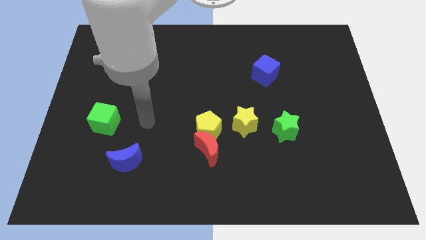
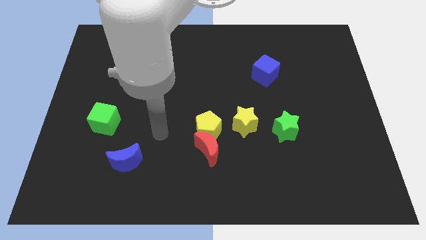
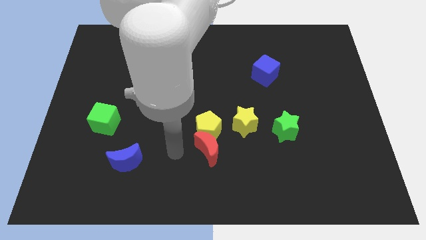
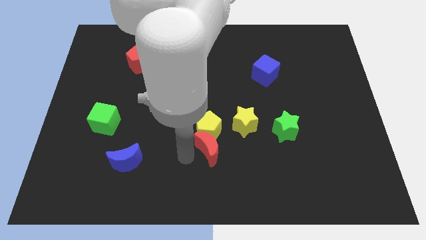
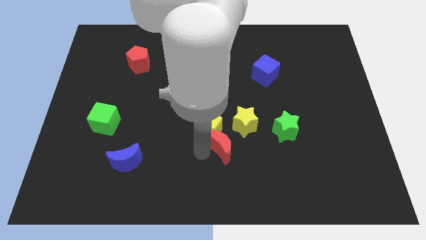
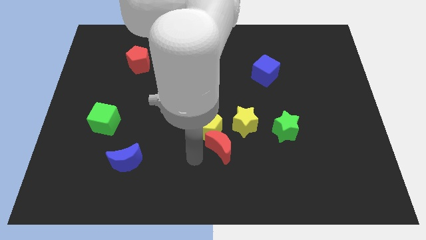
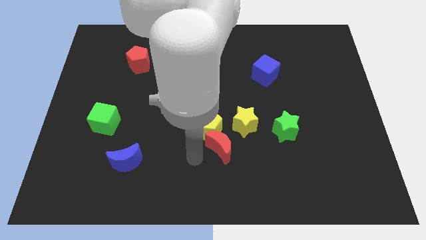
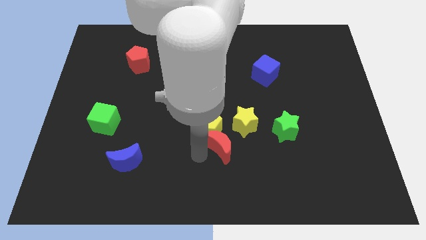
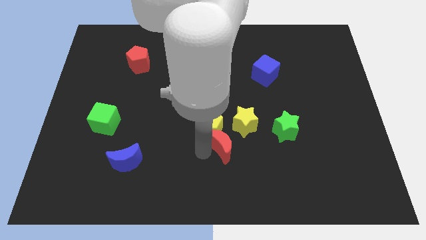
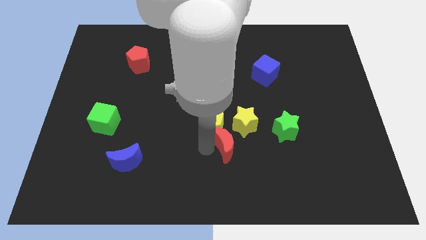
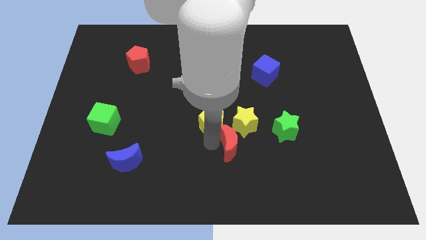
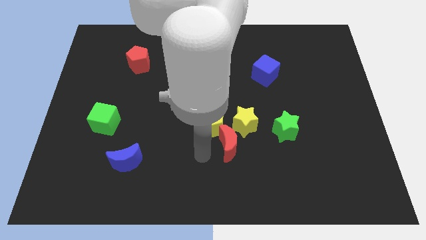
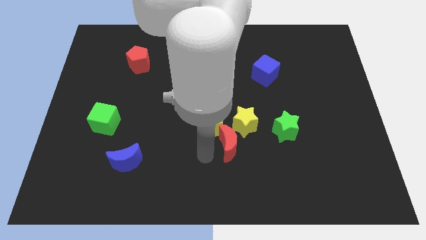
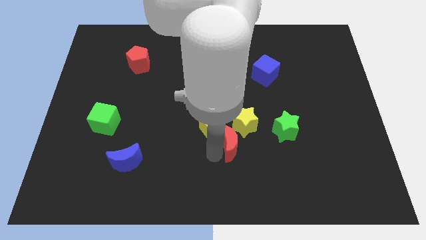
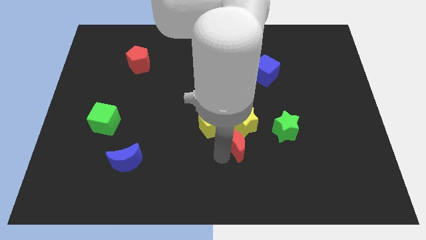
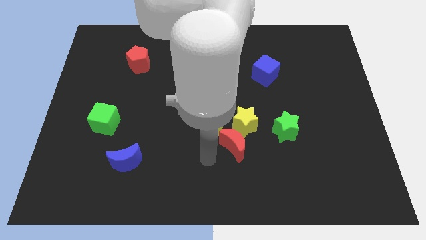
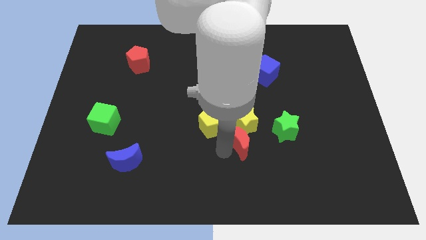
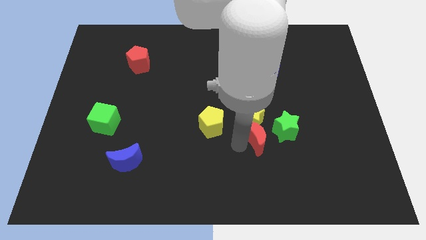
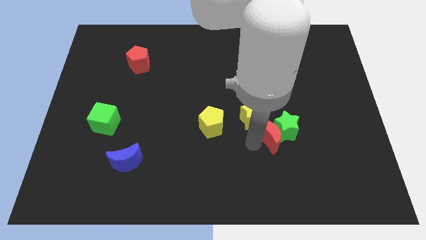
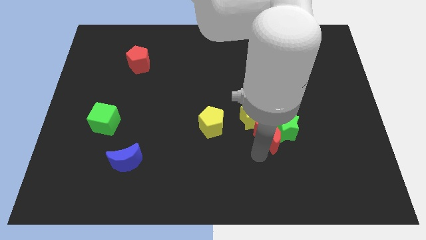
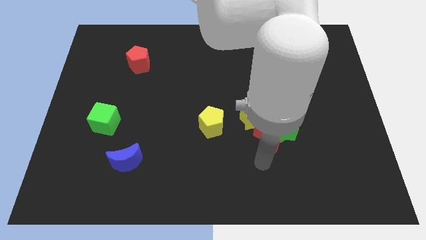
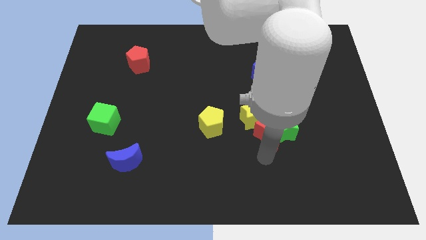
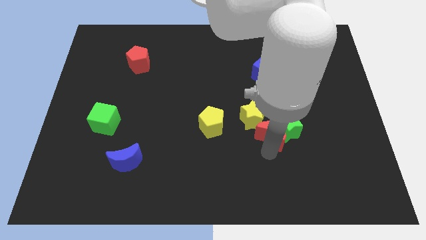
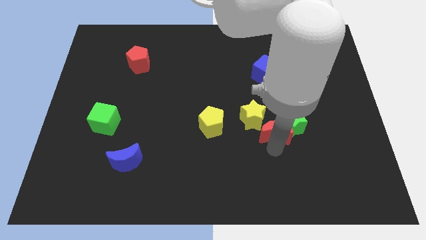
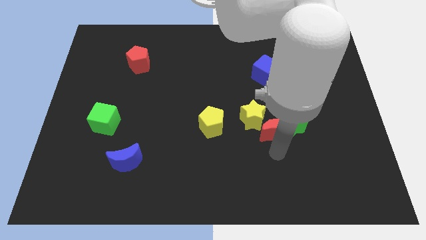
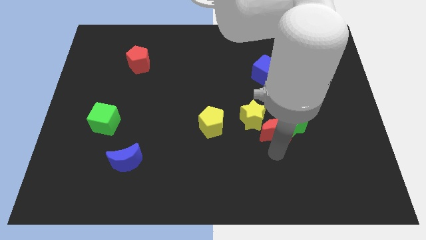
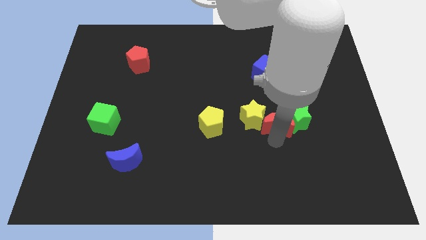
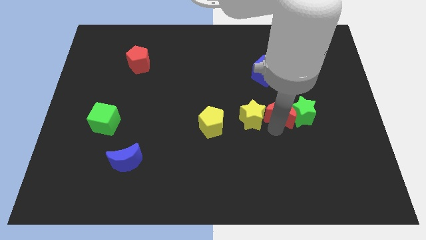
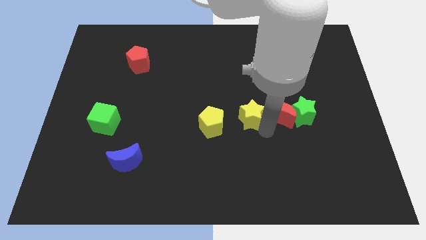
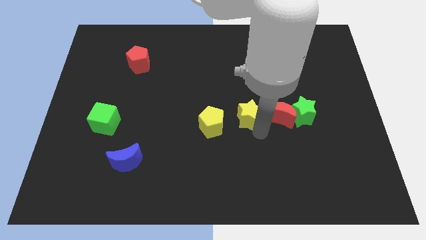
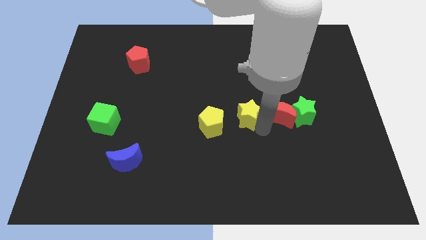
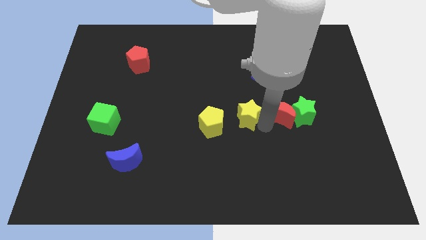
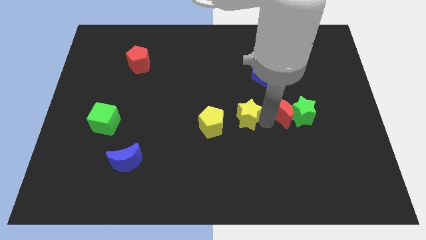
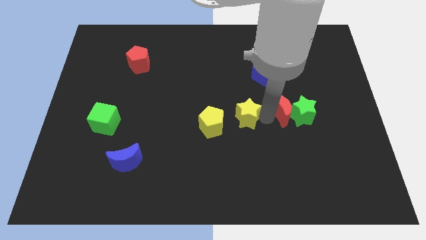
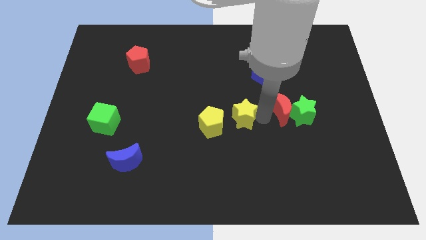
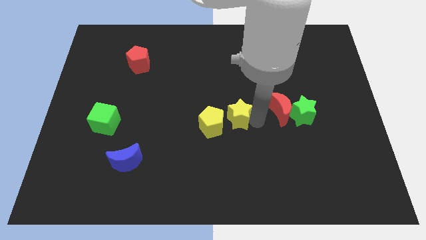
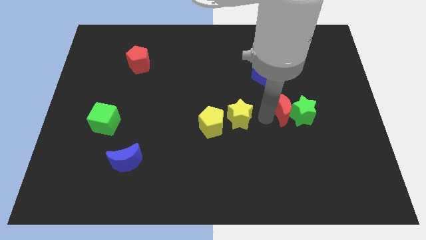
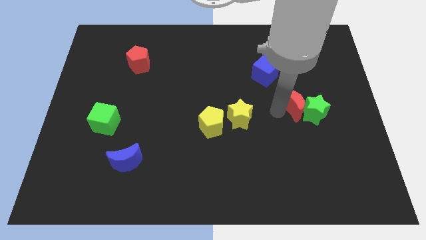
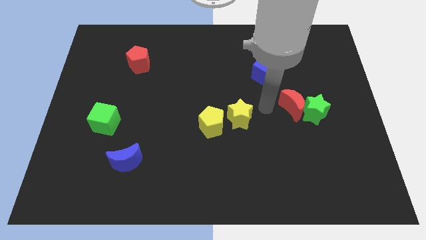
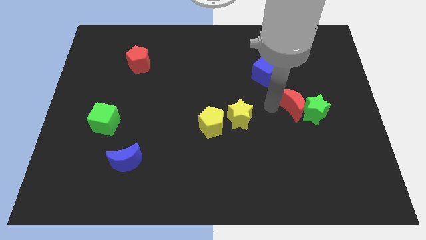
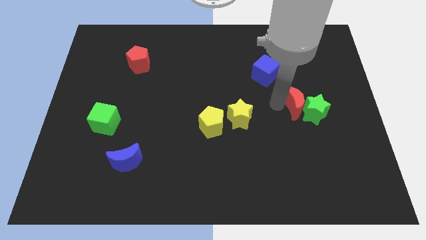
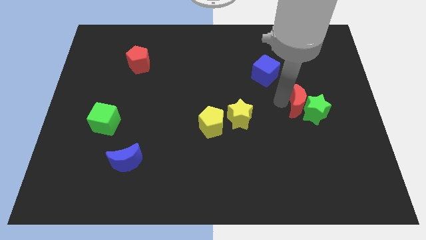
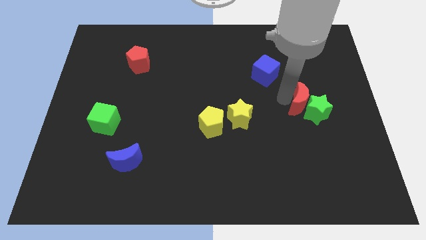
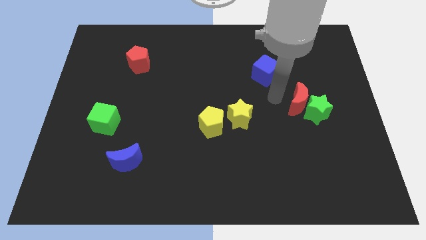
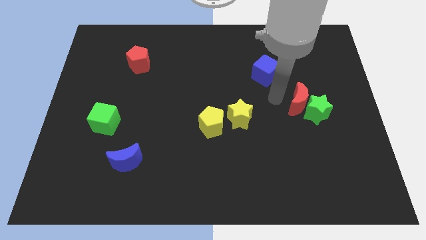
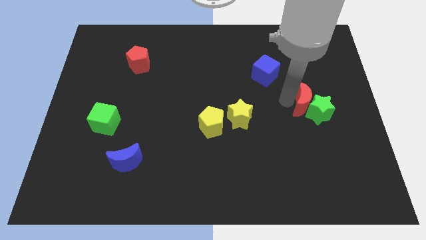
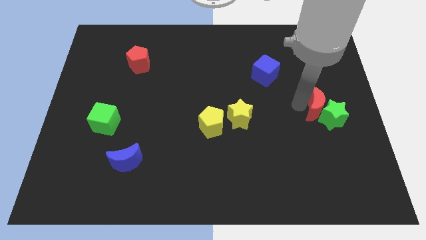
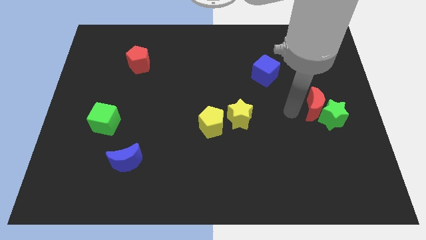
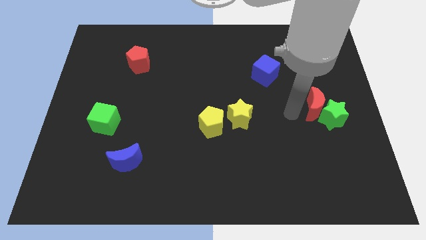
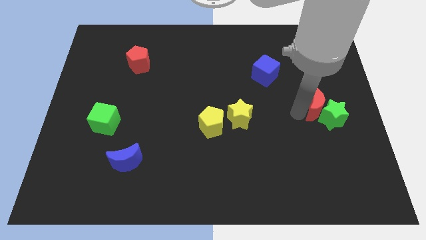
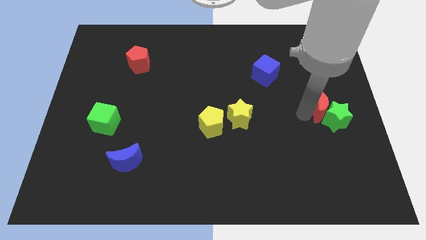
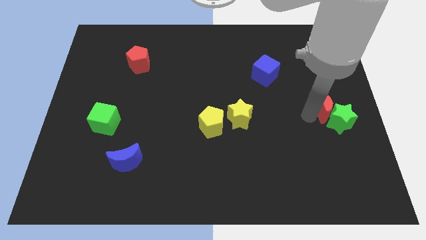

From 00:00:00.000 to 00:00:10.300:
put the red moon to the center right

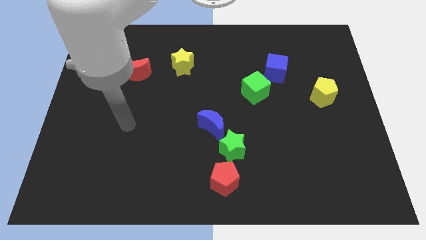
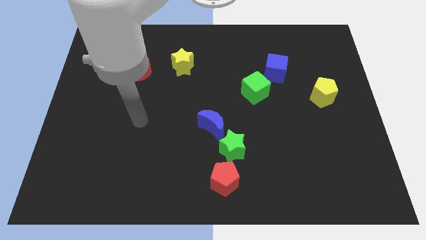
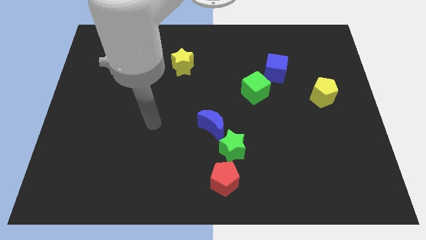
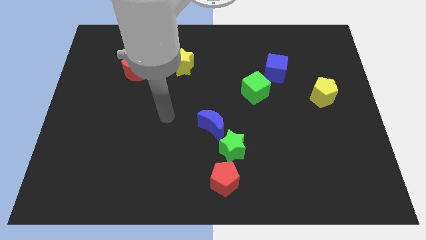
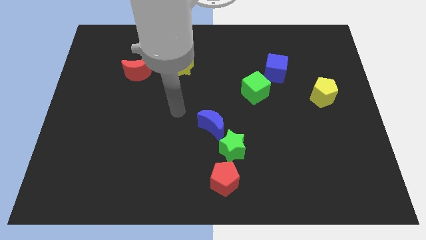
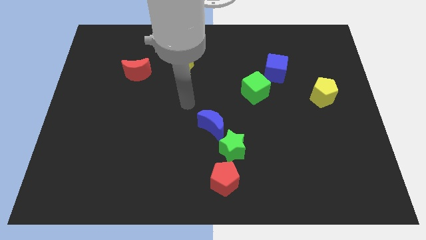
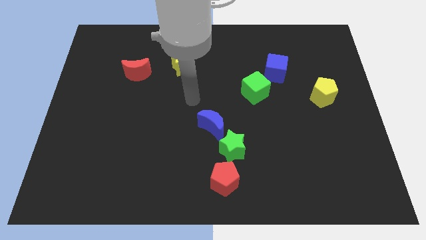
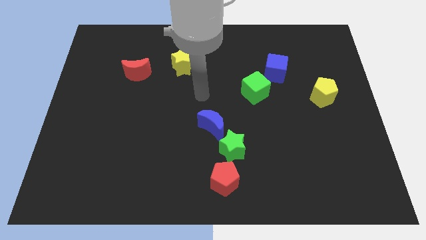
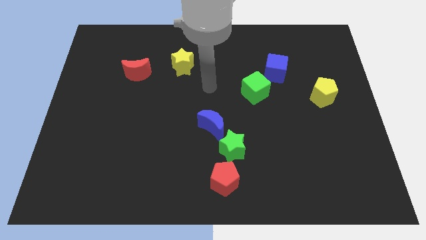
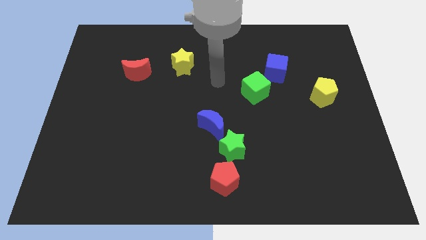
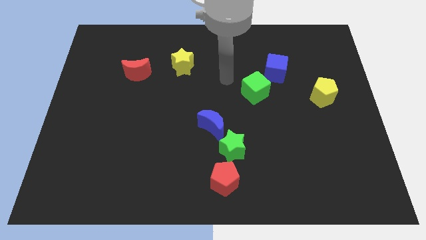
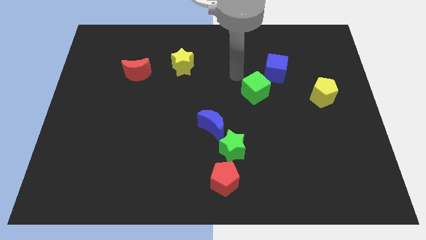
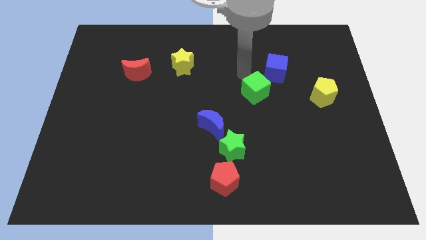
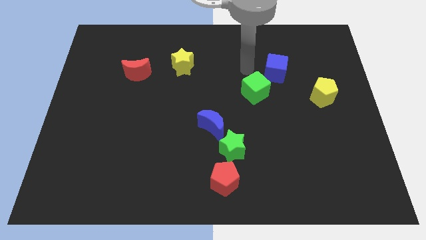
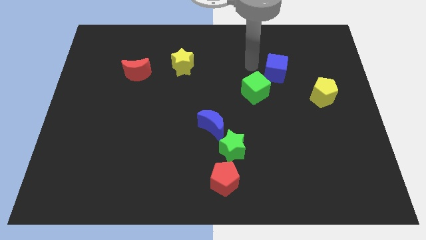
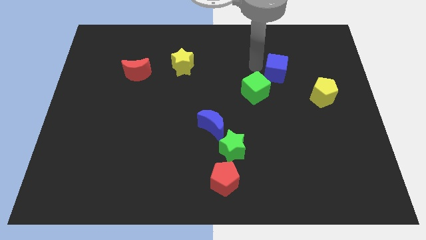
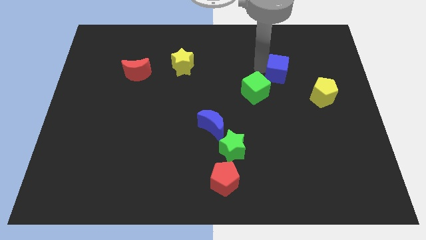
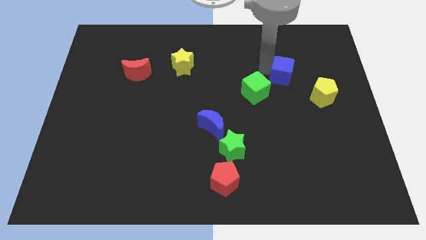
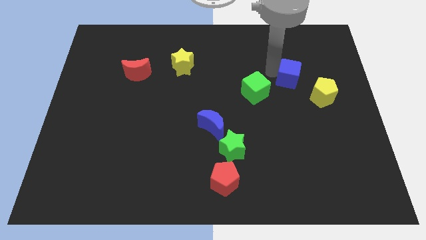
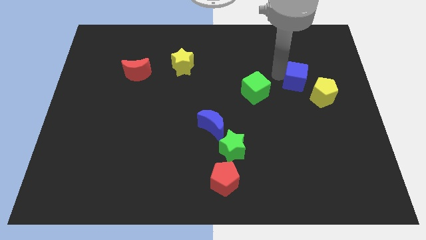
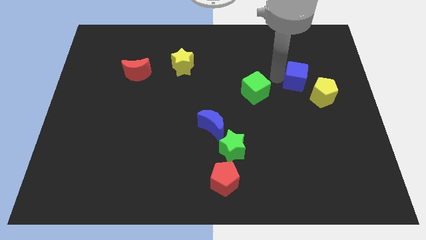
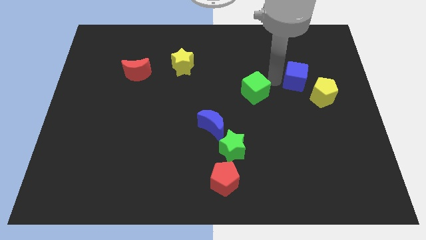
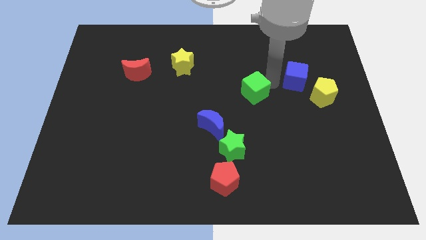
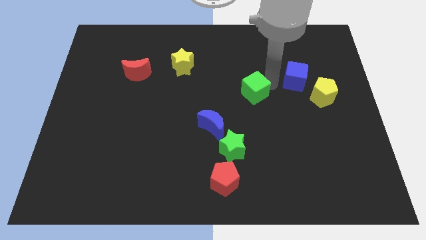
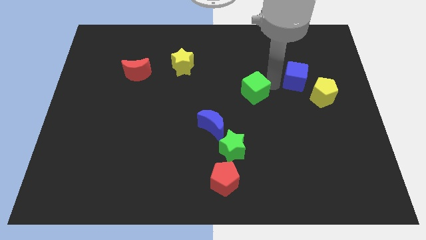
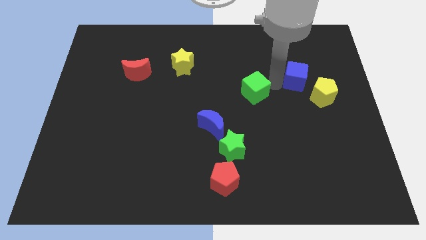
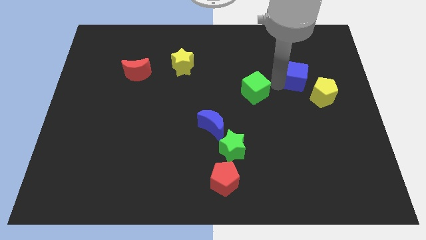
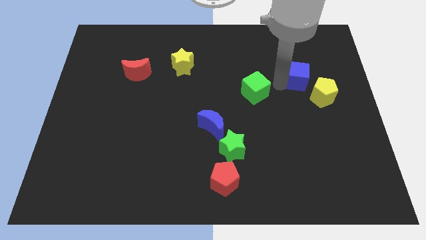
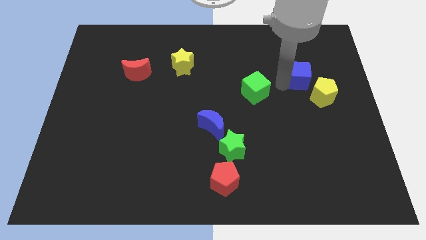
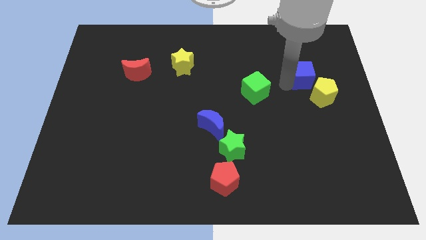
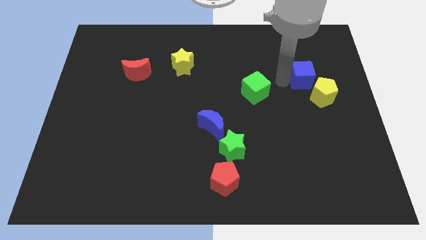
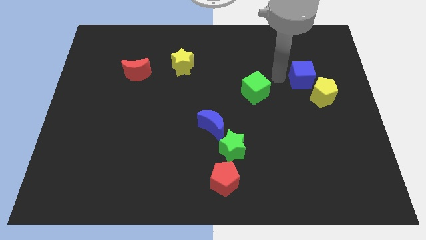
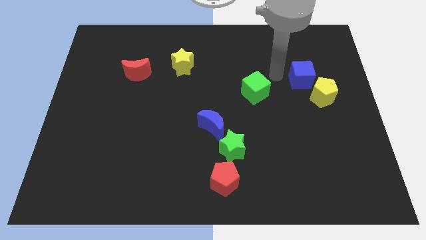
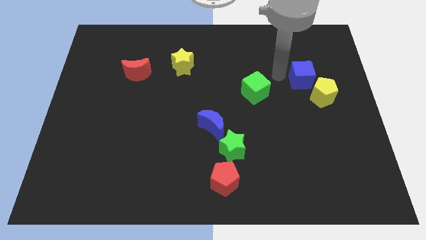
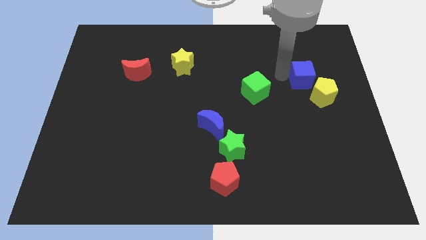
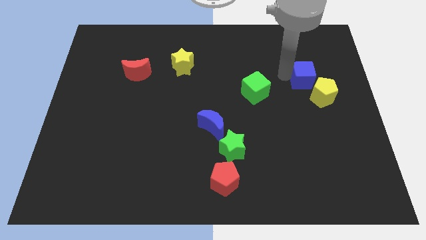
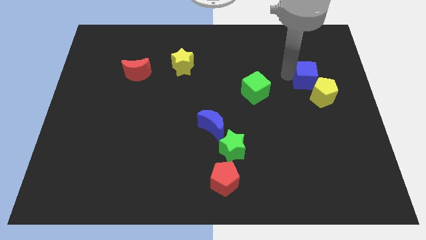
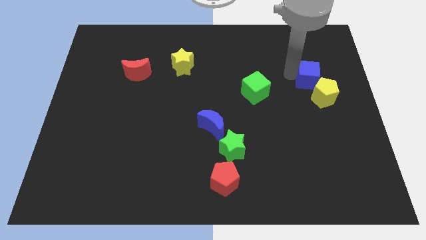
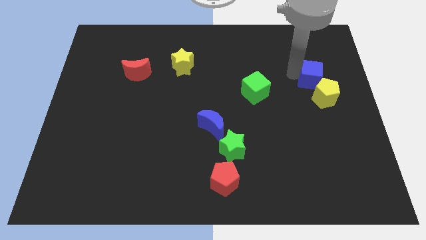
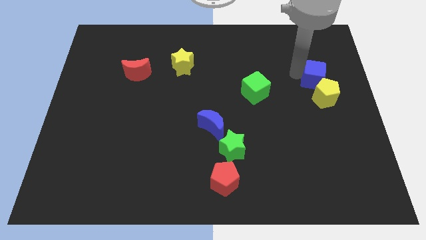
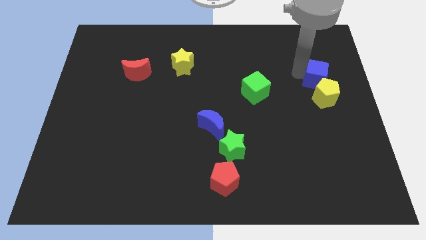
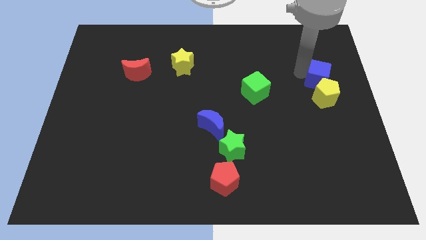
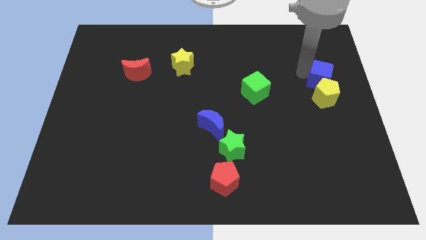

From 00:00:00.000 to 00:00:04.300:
move the blue cube to the right side
